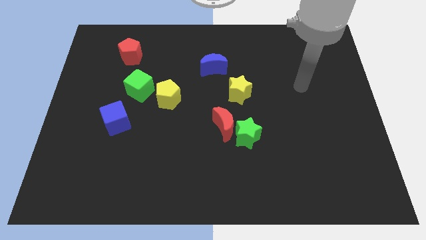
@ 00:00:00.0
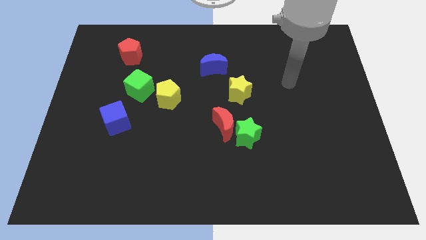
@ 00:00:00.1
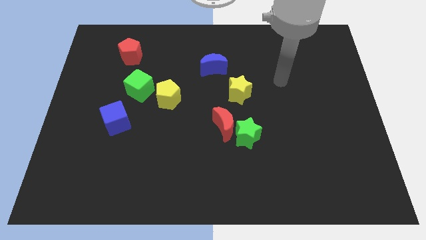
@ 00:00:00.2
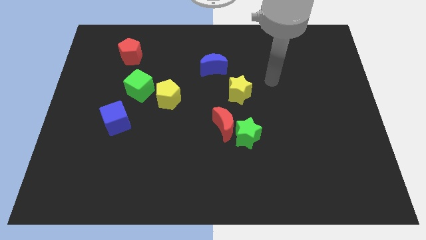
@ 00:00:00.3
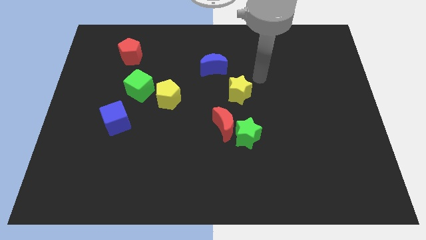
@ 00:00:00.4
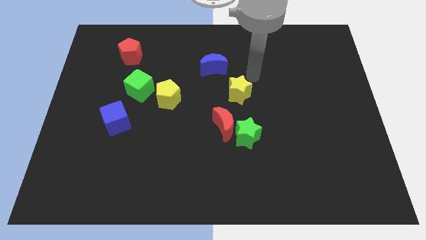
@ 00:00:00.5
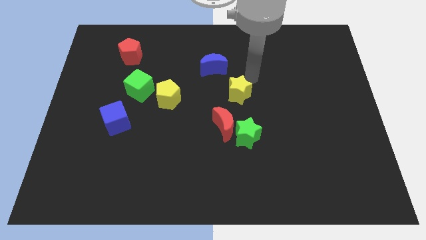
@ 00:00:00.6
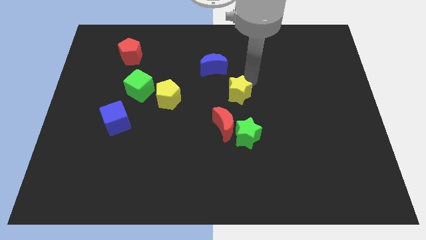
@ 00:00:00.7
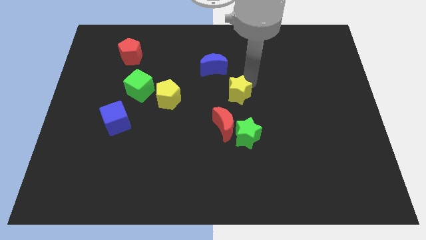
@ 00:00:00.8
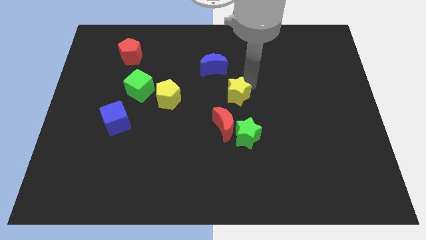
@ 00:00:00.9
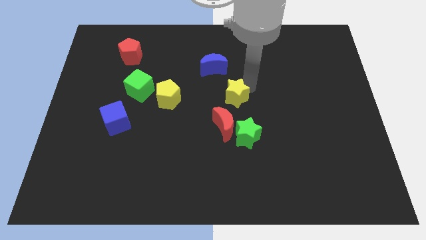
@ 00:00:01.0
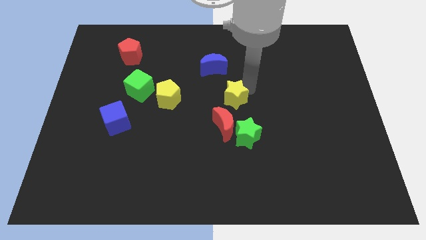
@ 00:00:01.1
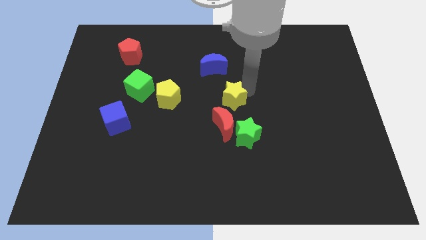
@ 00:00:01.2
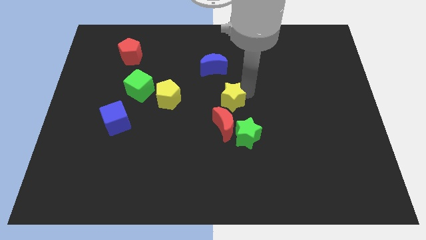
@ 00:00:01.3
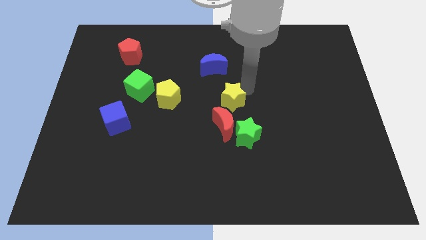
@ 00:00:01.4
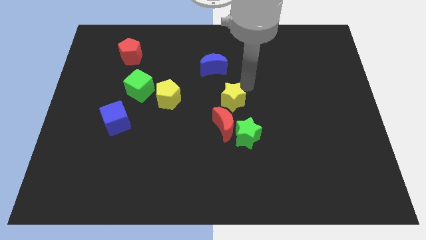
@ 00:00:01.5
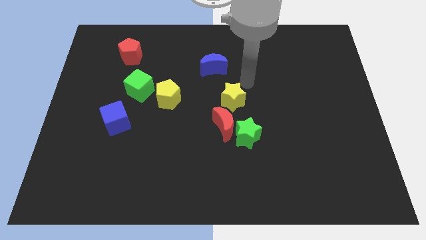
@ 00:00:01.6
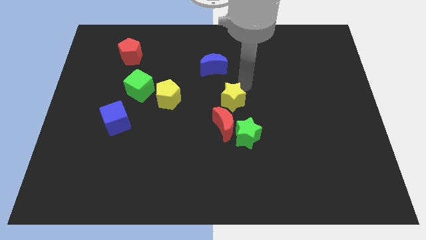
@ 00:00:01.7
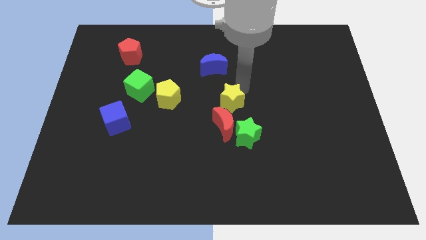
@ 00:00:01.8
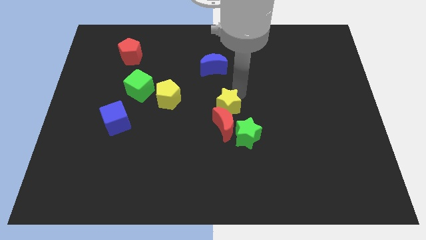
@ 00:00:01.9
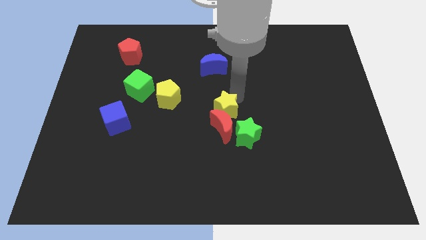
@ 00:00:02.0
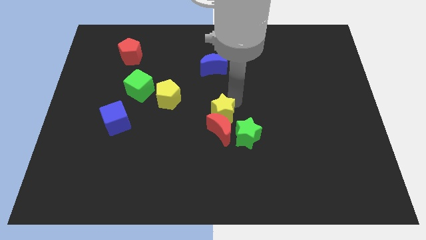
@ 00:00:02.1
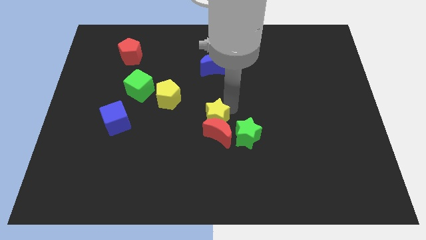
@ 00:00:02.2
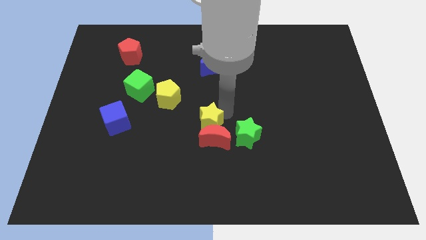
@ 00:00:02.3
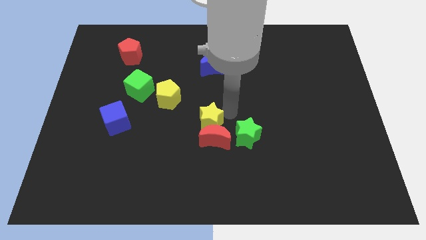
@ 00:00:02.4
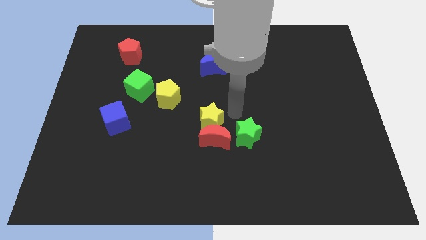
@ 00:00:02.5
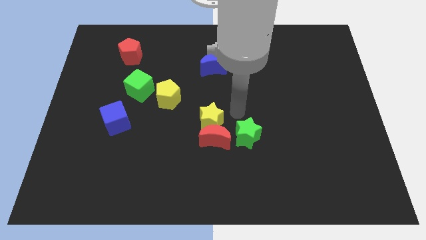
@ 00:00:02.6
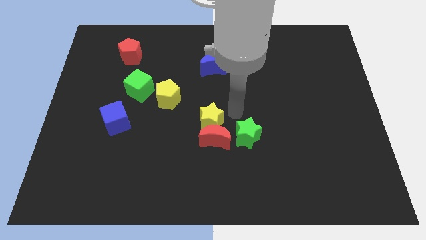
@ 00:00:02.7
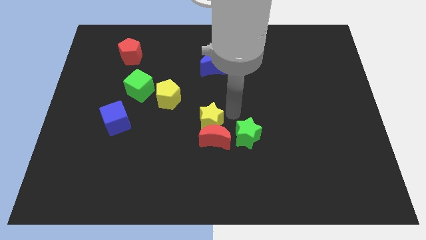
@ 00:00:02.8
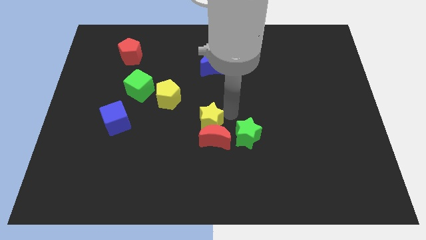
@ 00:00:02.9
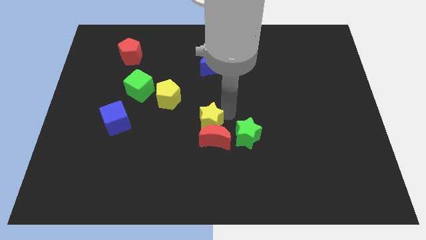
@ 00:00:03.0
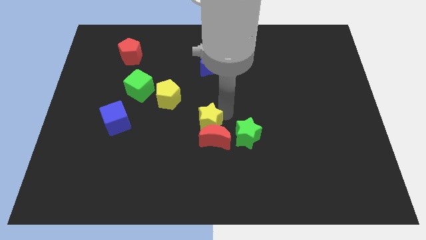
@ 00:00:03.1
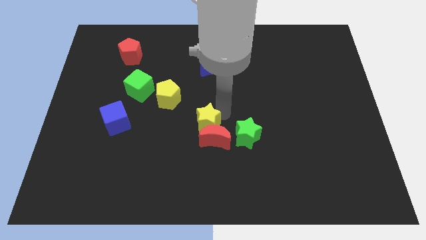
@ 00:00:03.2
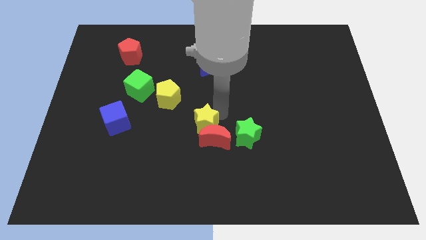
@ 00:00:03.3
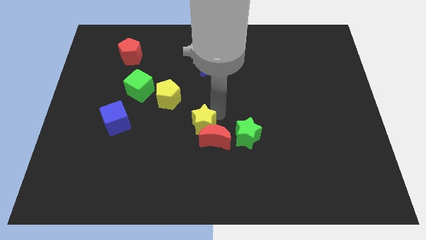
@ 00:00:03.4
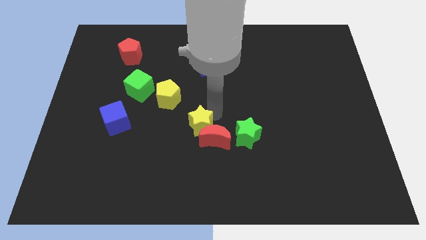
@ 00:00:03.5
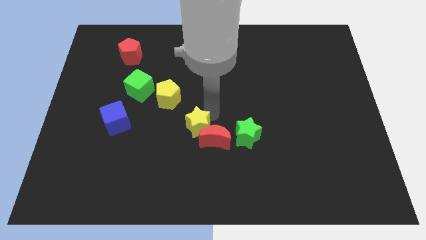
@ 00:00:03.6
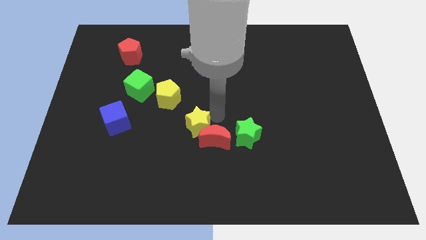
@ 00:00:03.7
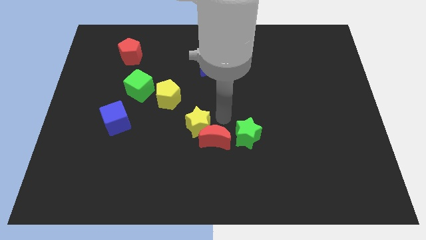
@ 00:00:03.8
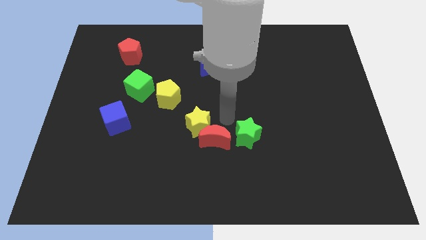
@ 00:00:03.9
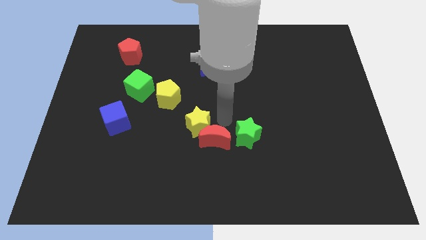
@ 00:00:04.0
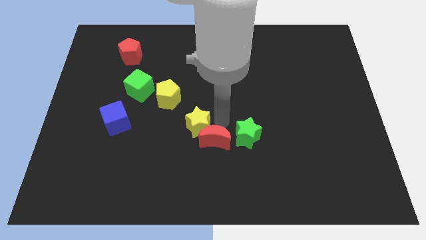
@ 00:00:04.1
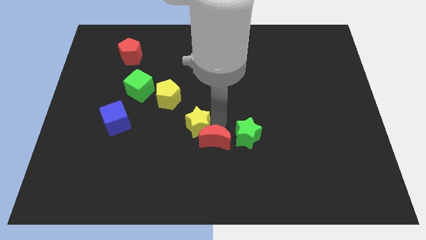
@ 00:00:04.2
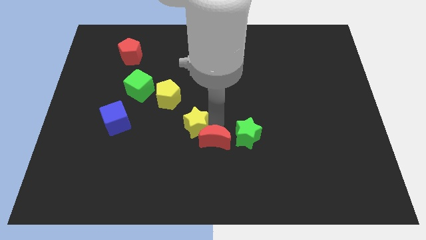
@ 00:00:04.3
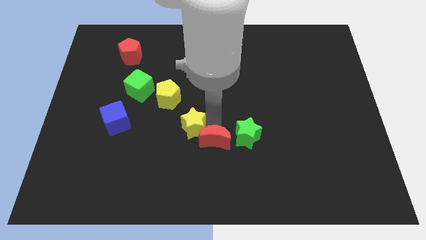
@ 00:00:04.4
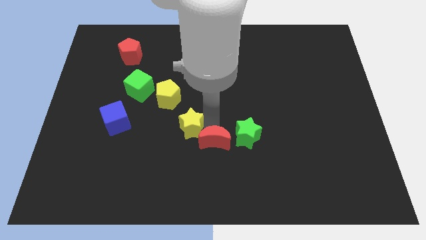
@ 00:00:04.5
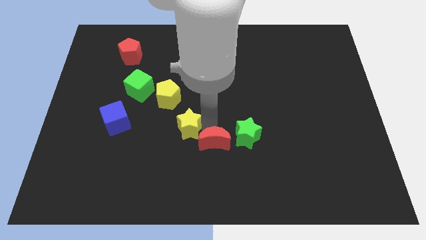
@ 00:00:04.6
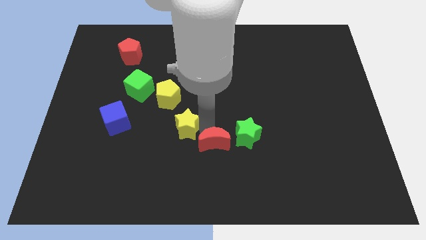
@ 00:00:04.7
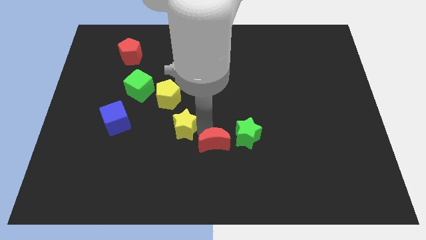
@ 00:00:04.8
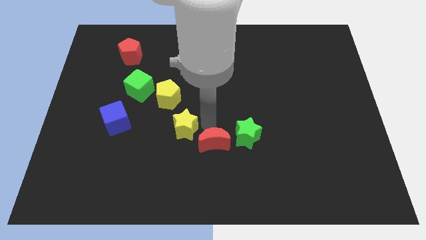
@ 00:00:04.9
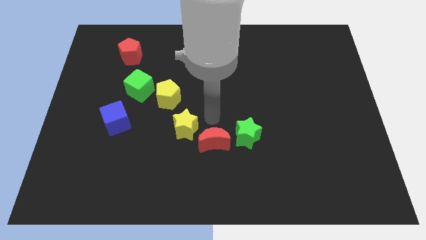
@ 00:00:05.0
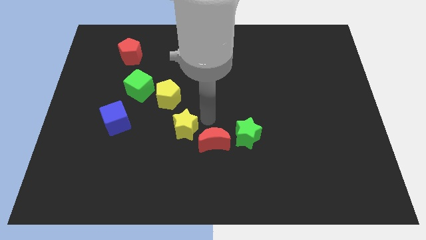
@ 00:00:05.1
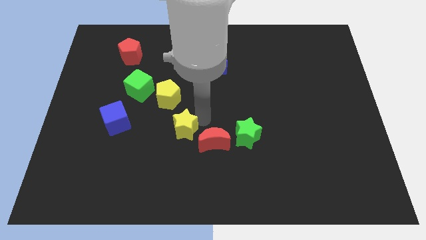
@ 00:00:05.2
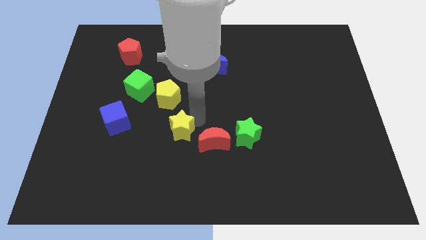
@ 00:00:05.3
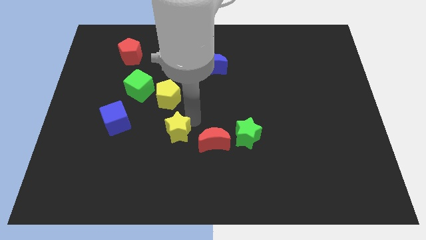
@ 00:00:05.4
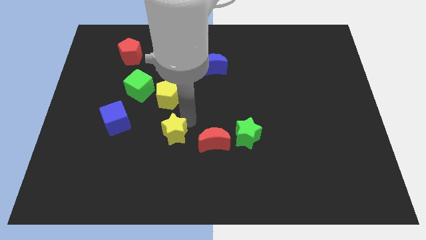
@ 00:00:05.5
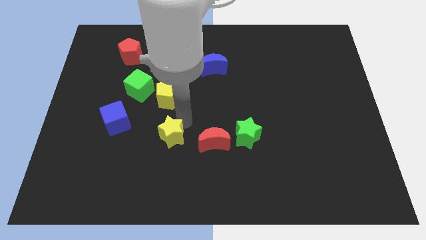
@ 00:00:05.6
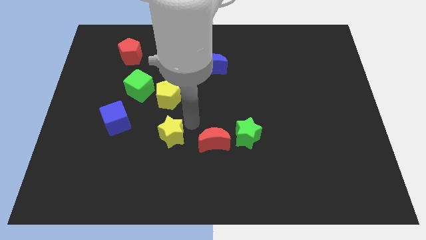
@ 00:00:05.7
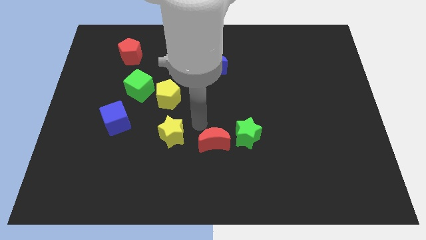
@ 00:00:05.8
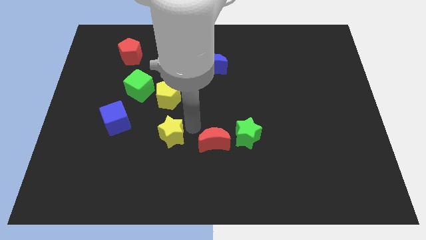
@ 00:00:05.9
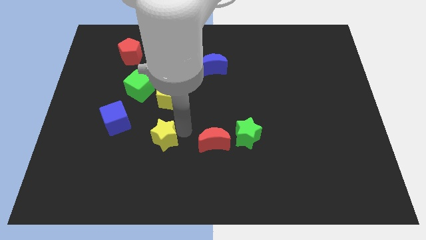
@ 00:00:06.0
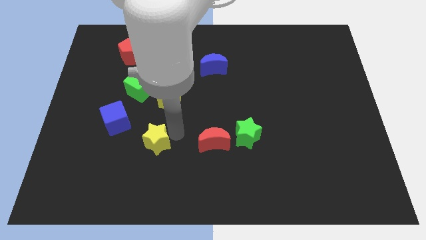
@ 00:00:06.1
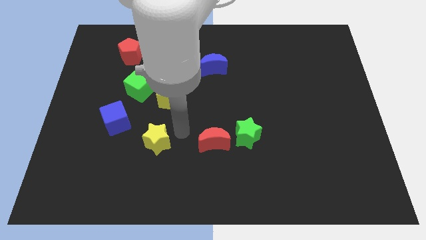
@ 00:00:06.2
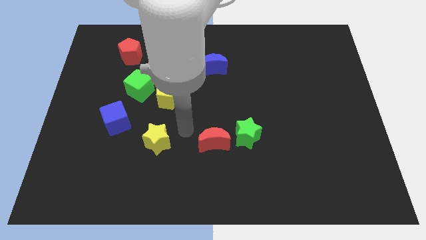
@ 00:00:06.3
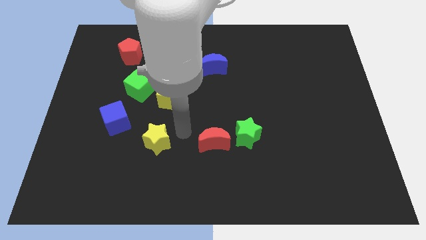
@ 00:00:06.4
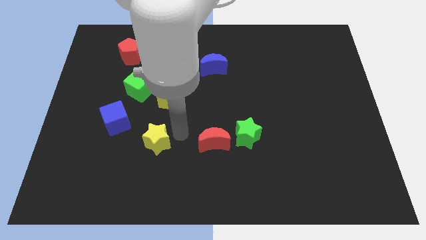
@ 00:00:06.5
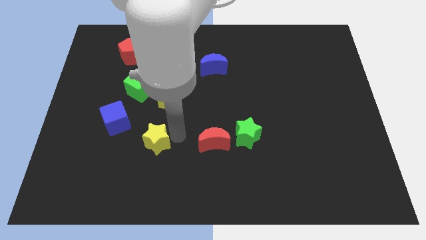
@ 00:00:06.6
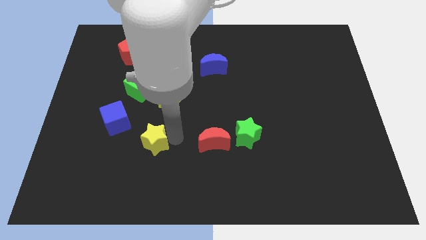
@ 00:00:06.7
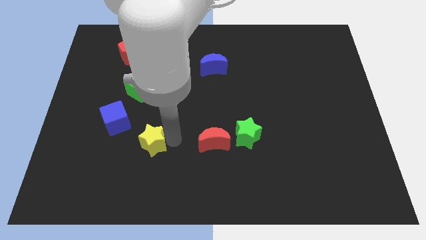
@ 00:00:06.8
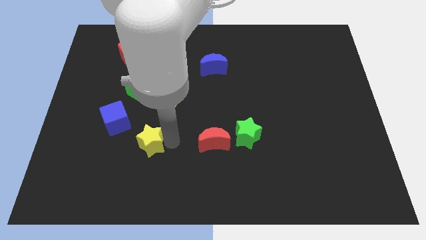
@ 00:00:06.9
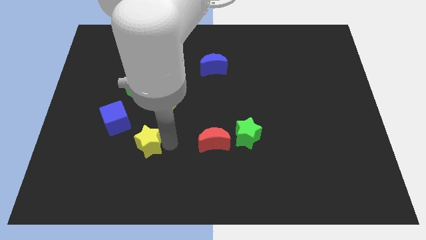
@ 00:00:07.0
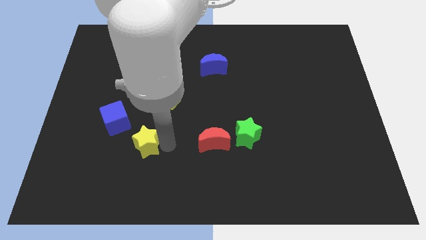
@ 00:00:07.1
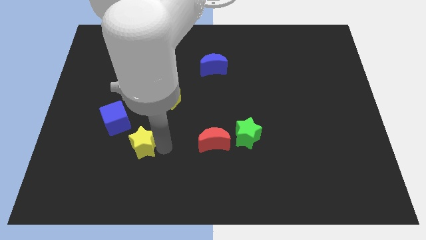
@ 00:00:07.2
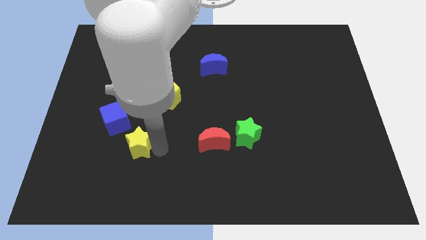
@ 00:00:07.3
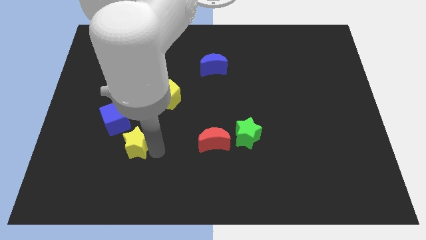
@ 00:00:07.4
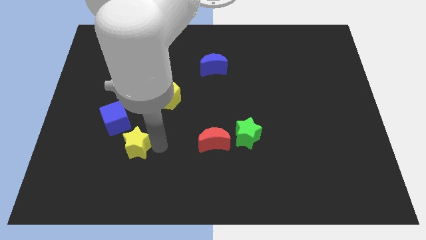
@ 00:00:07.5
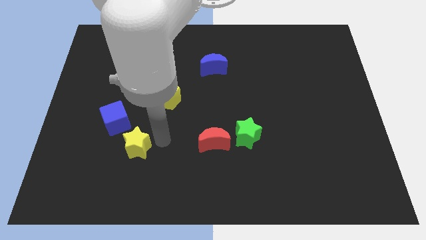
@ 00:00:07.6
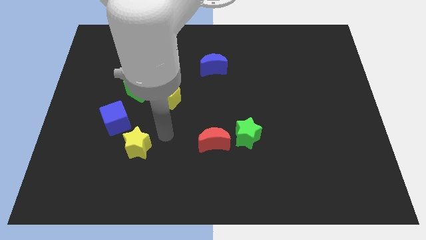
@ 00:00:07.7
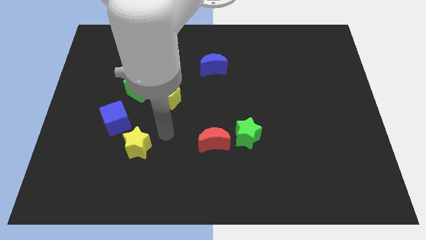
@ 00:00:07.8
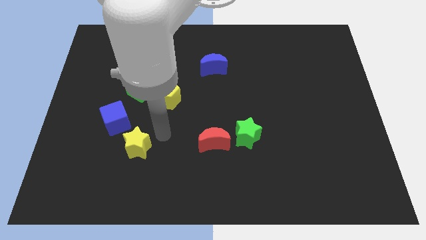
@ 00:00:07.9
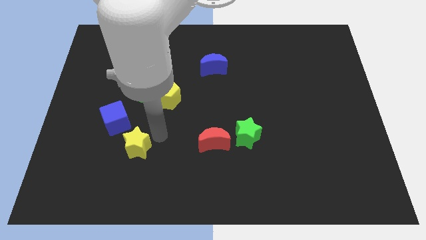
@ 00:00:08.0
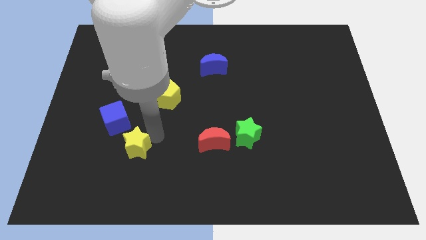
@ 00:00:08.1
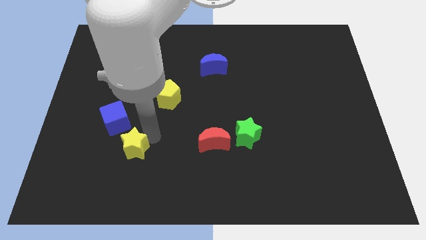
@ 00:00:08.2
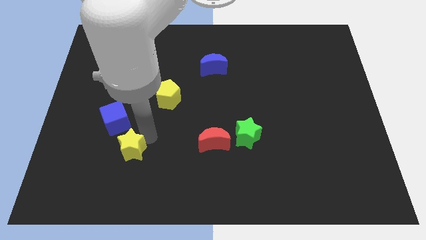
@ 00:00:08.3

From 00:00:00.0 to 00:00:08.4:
put the yellow star below the blue cube
